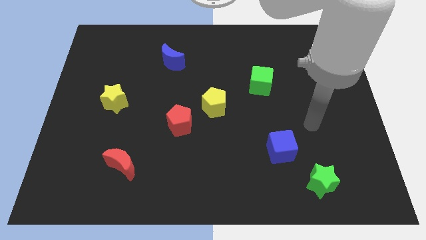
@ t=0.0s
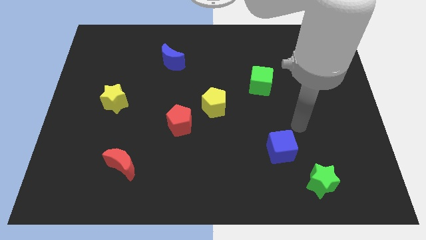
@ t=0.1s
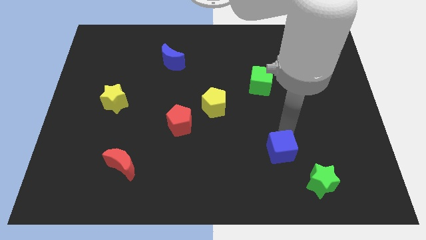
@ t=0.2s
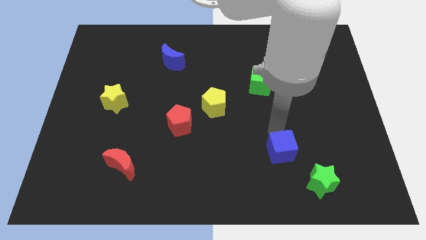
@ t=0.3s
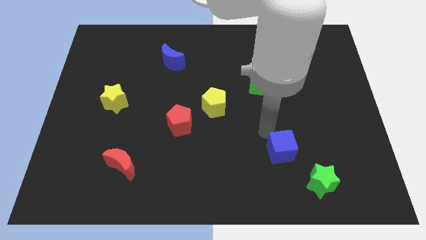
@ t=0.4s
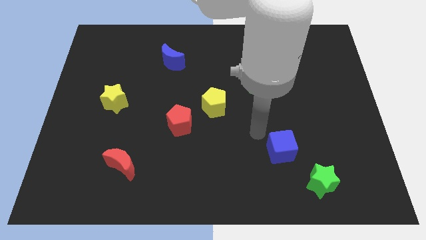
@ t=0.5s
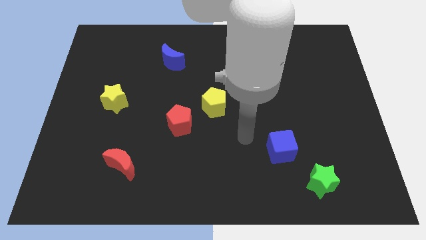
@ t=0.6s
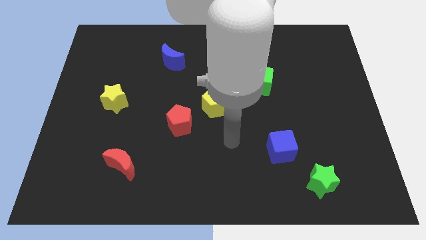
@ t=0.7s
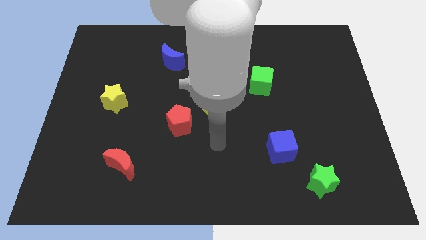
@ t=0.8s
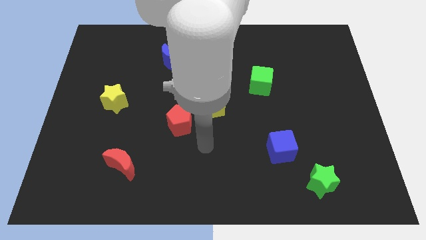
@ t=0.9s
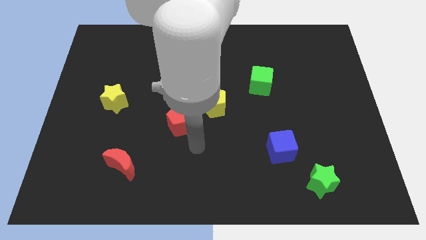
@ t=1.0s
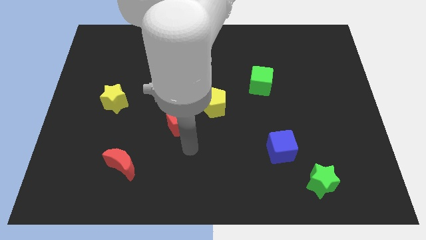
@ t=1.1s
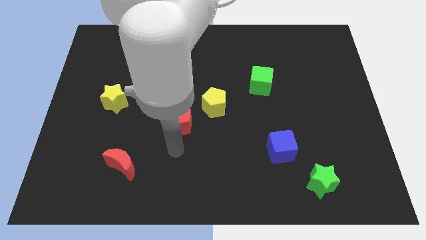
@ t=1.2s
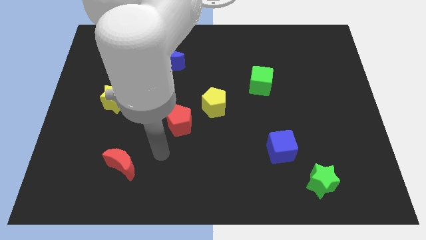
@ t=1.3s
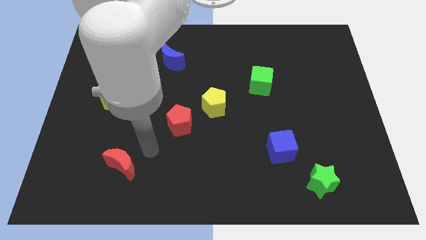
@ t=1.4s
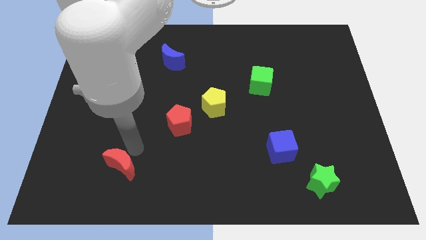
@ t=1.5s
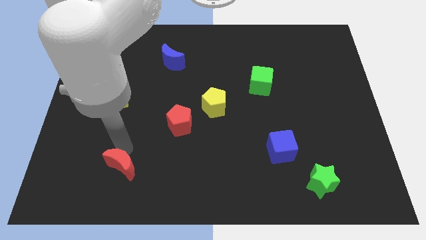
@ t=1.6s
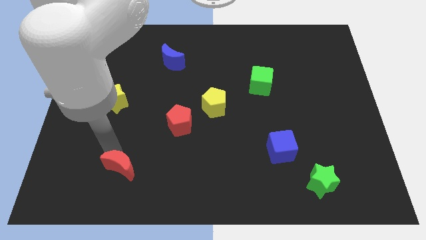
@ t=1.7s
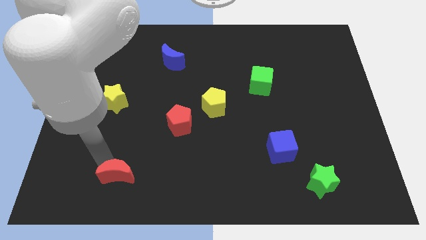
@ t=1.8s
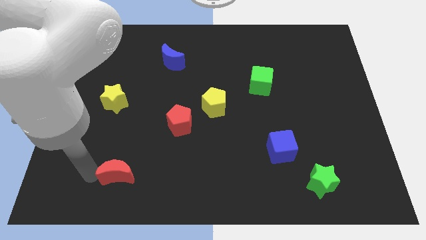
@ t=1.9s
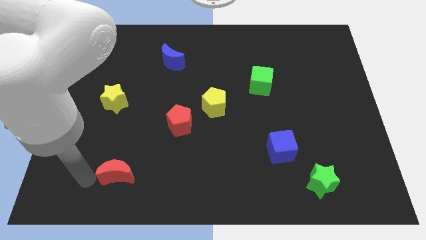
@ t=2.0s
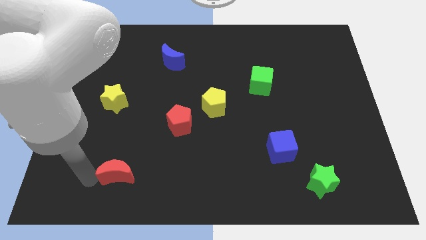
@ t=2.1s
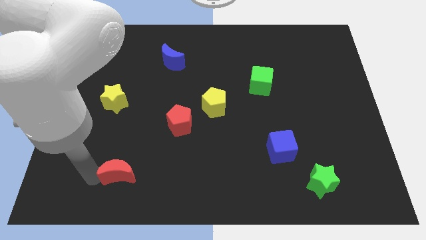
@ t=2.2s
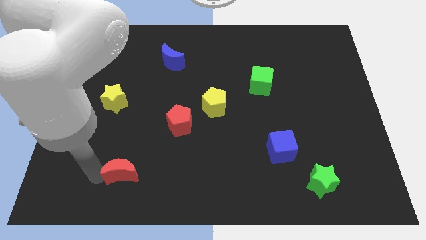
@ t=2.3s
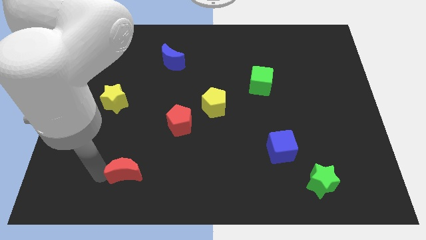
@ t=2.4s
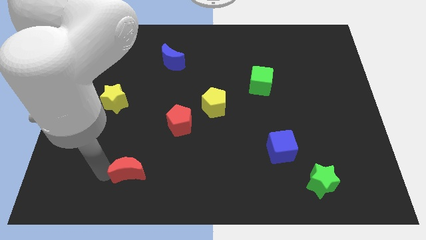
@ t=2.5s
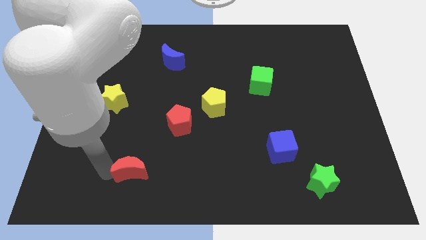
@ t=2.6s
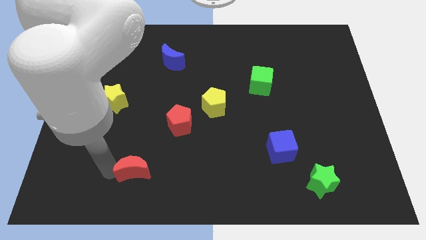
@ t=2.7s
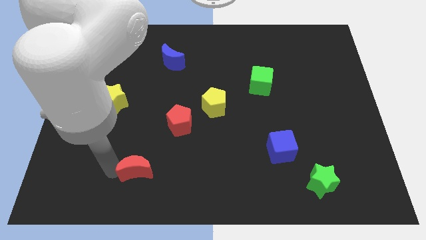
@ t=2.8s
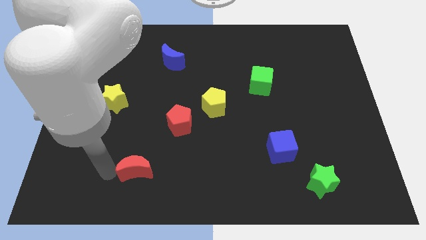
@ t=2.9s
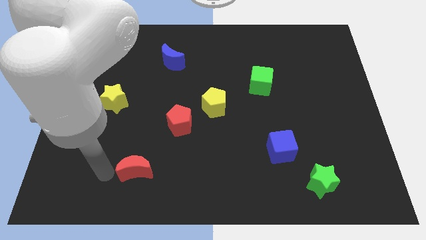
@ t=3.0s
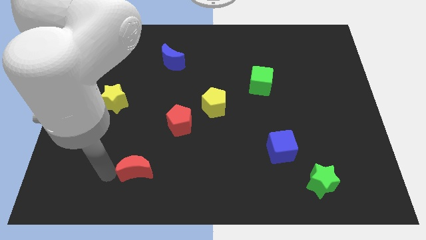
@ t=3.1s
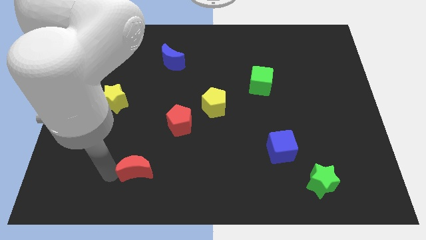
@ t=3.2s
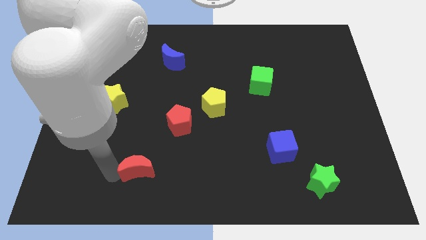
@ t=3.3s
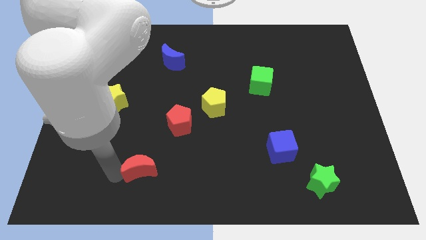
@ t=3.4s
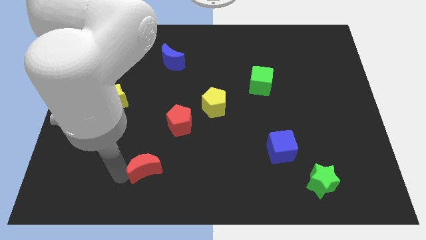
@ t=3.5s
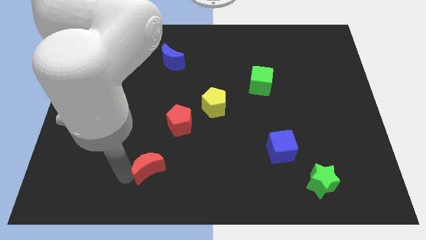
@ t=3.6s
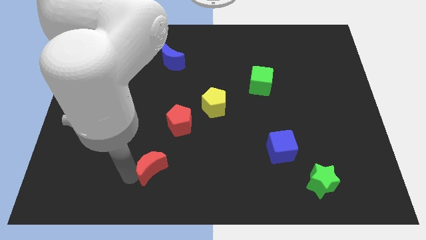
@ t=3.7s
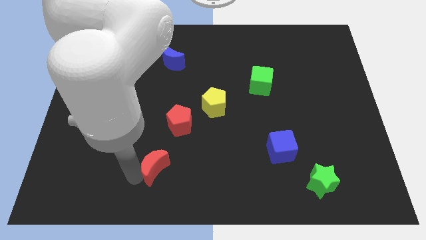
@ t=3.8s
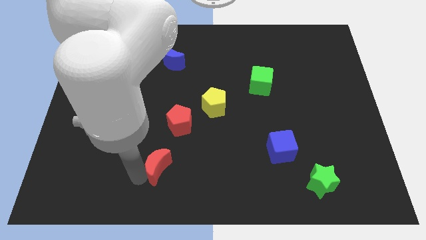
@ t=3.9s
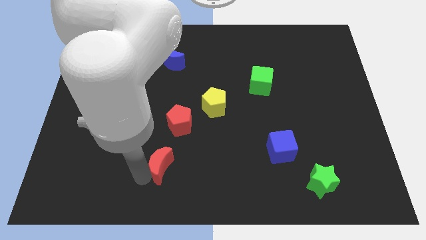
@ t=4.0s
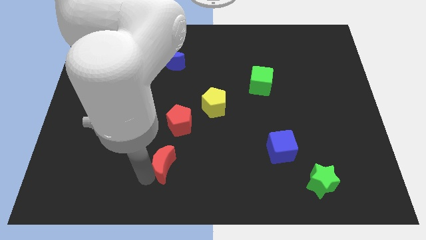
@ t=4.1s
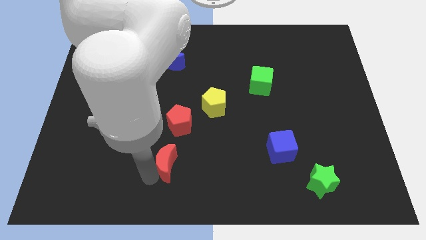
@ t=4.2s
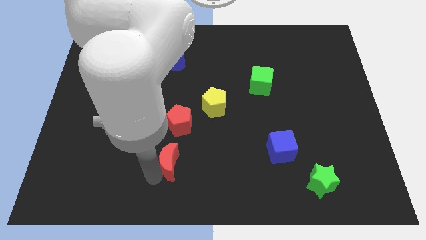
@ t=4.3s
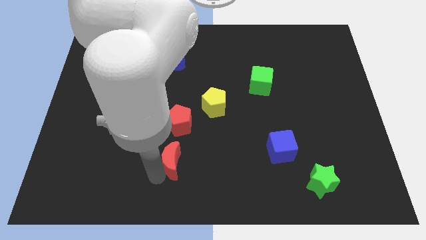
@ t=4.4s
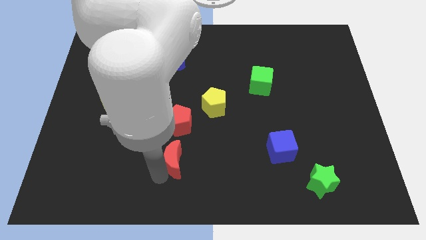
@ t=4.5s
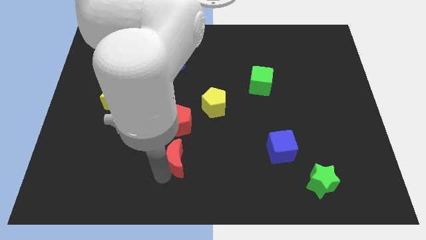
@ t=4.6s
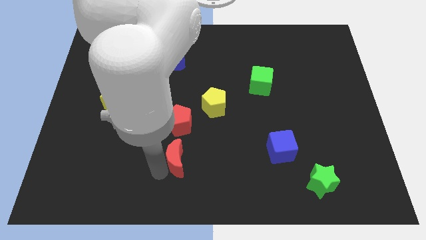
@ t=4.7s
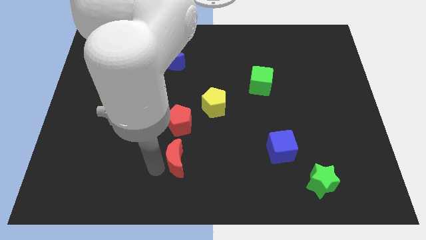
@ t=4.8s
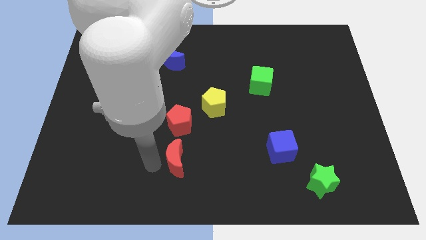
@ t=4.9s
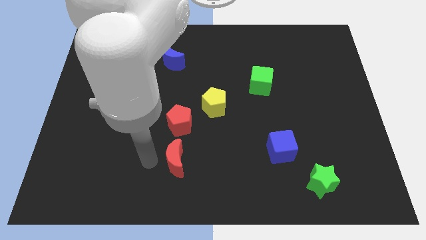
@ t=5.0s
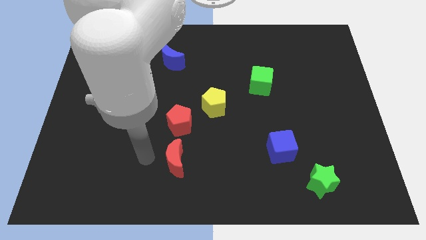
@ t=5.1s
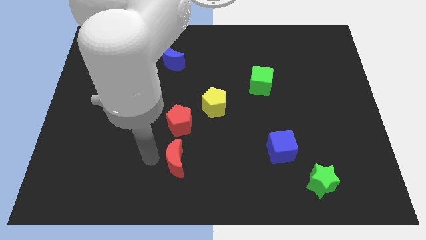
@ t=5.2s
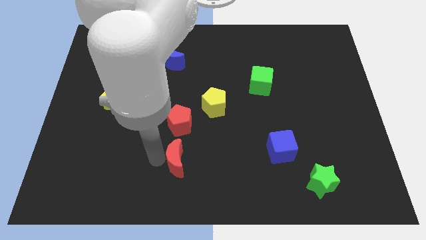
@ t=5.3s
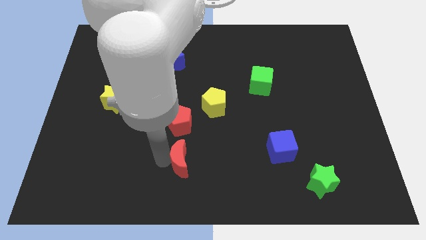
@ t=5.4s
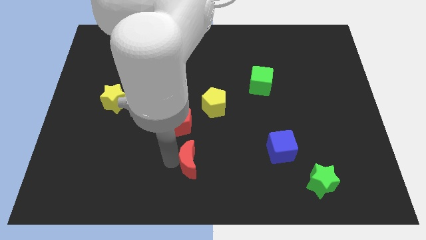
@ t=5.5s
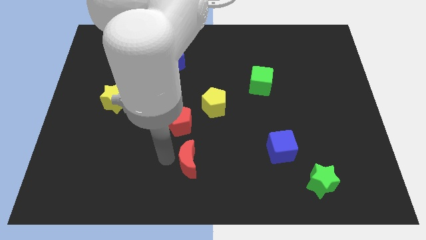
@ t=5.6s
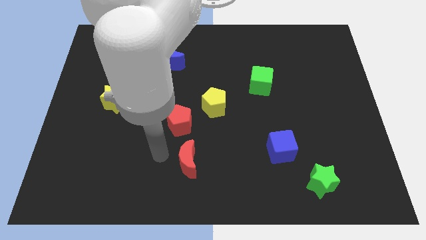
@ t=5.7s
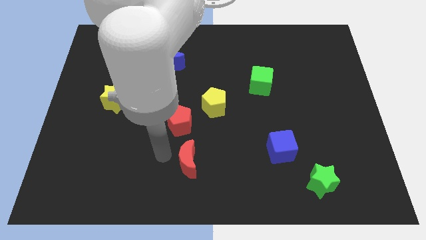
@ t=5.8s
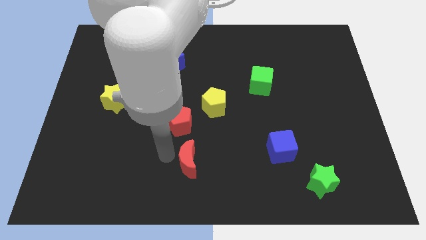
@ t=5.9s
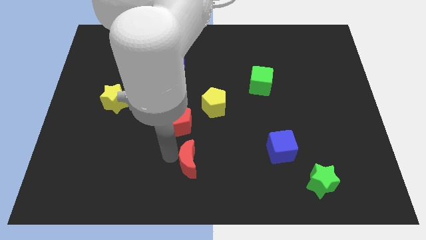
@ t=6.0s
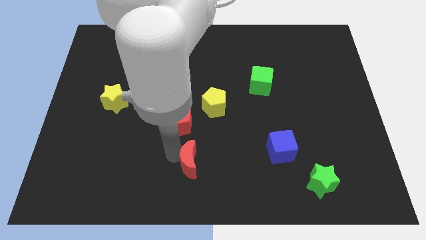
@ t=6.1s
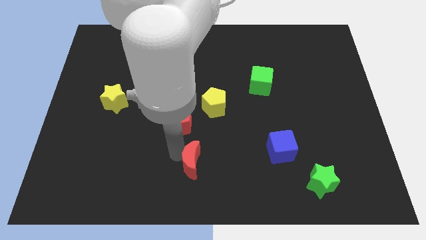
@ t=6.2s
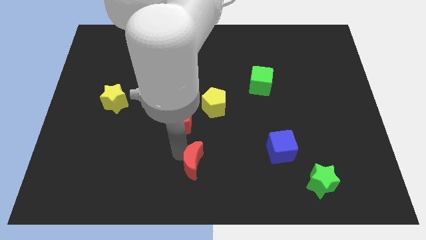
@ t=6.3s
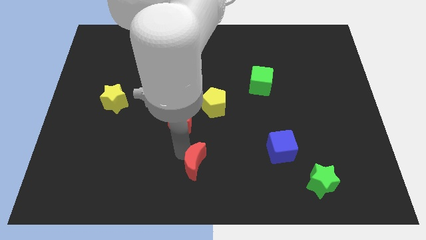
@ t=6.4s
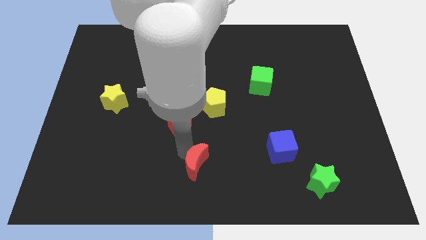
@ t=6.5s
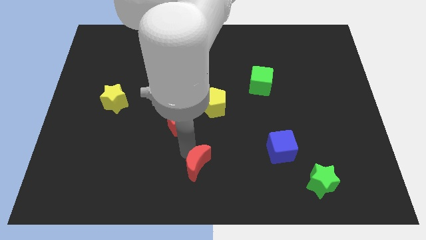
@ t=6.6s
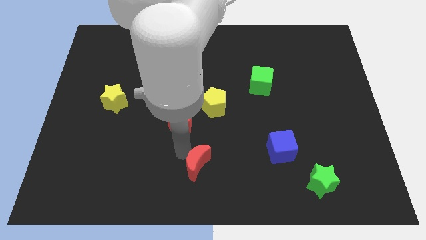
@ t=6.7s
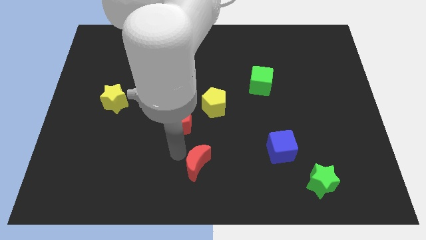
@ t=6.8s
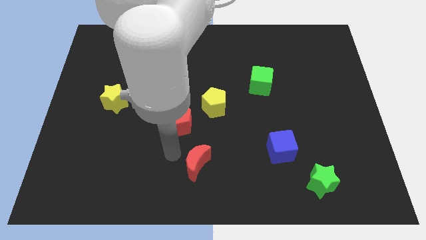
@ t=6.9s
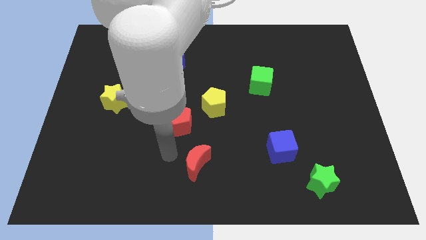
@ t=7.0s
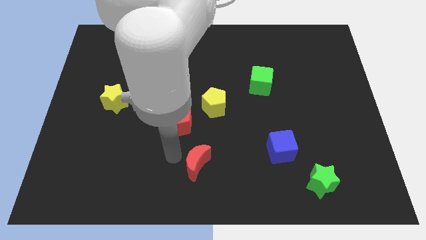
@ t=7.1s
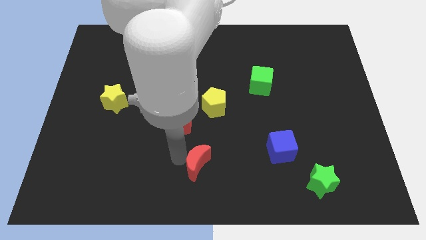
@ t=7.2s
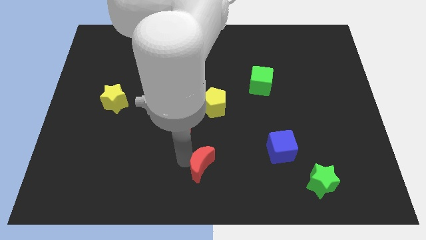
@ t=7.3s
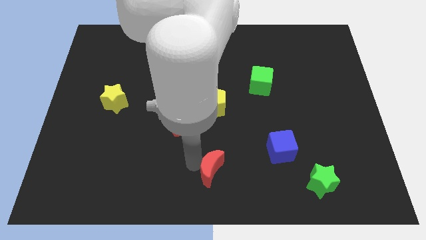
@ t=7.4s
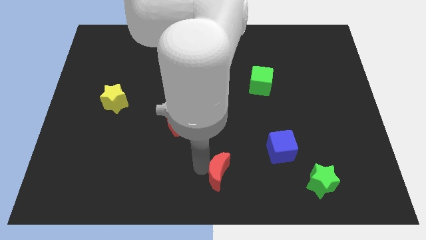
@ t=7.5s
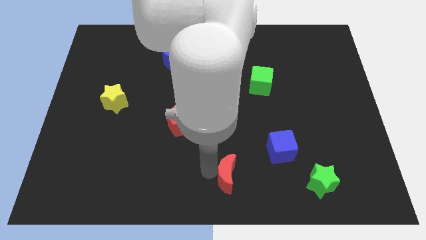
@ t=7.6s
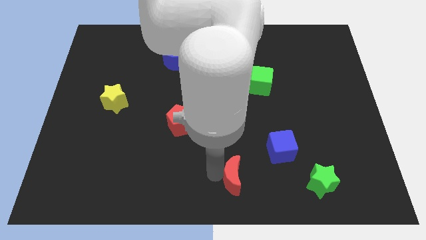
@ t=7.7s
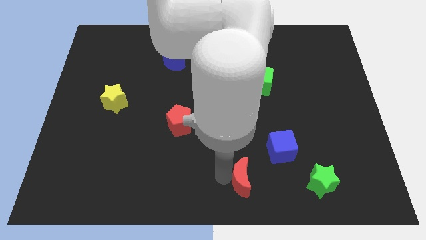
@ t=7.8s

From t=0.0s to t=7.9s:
put the red moon to the left side of the green star
